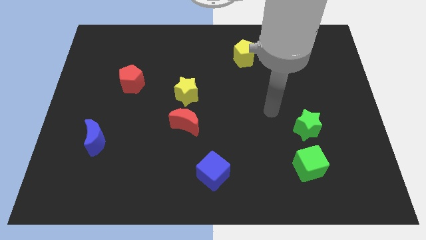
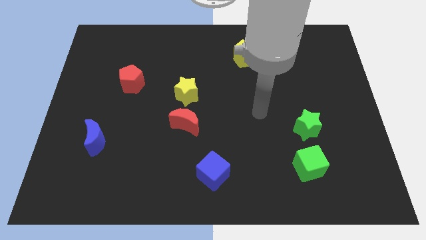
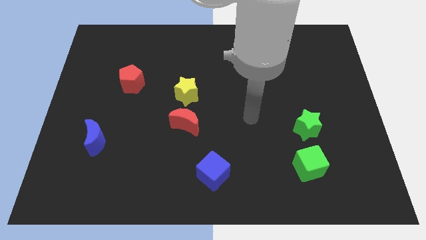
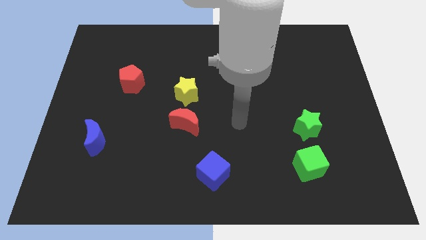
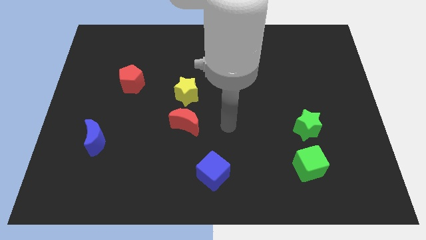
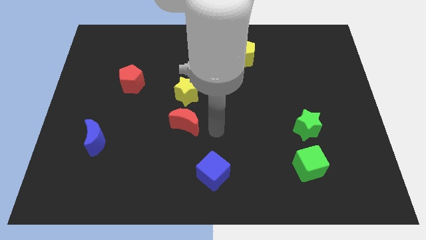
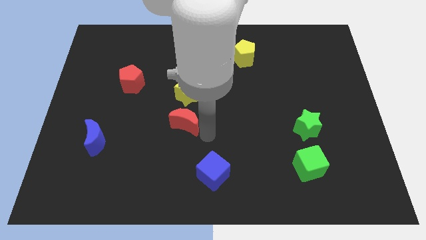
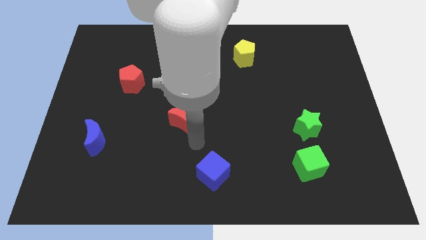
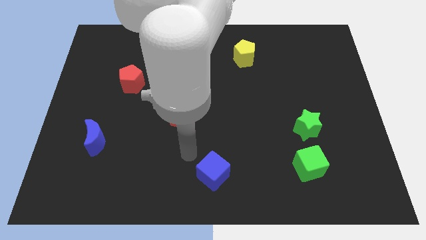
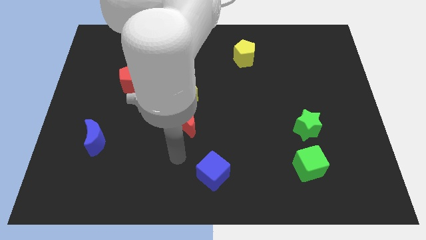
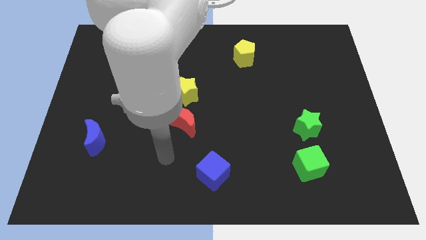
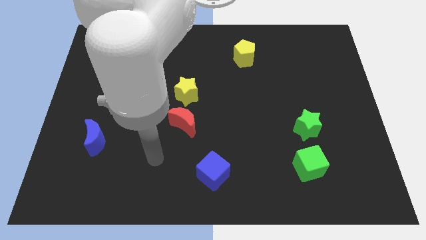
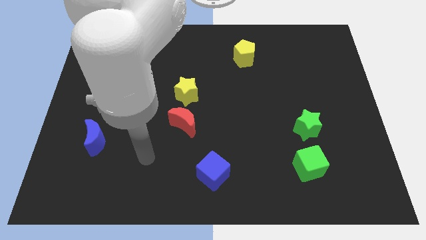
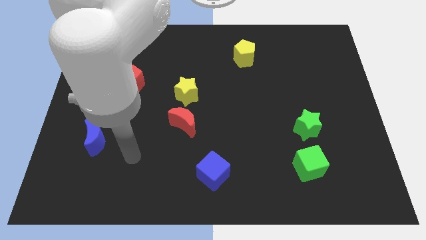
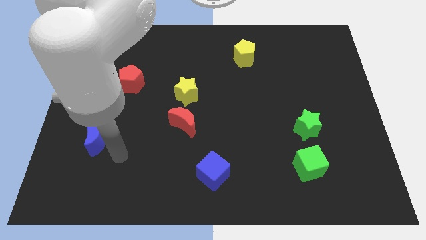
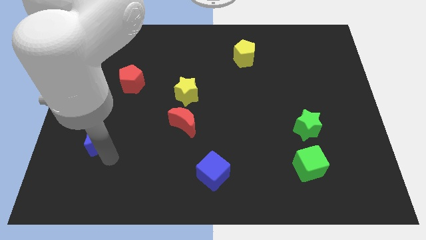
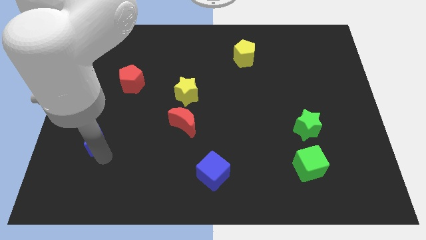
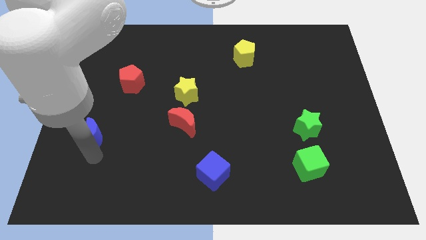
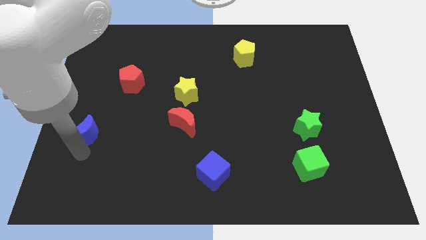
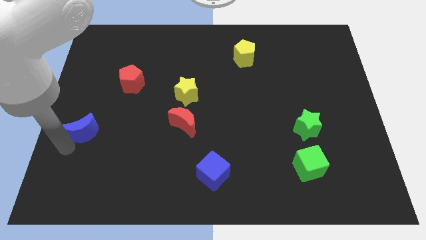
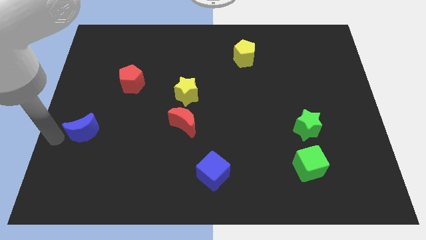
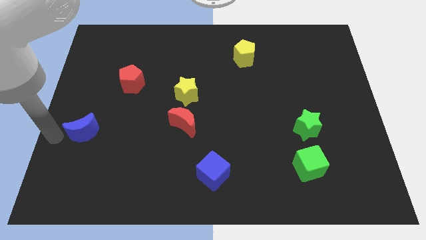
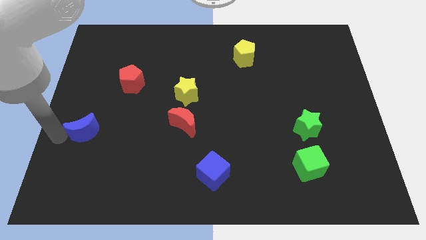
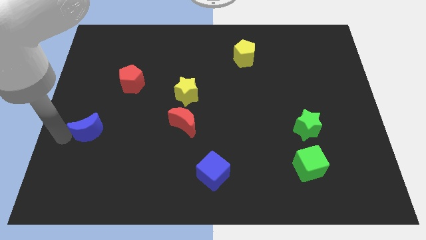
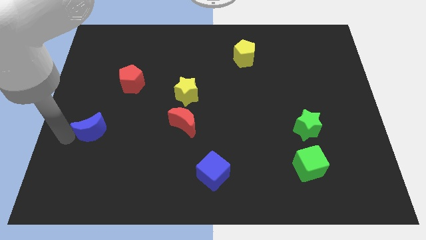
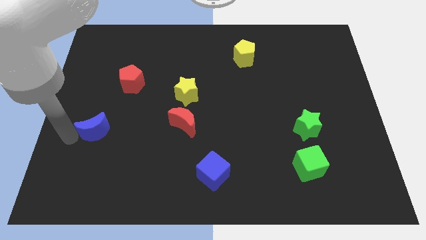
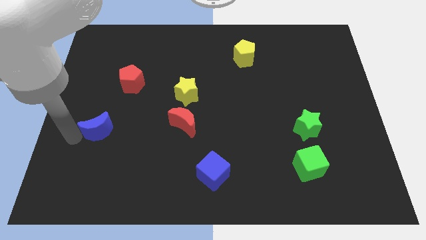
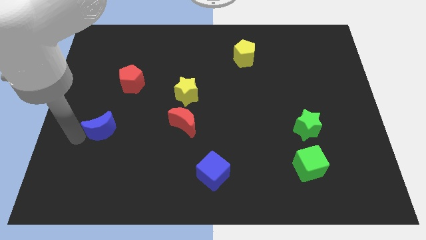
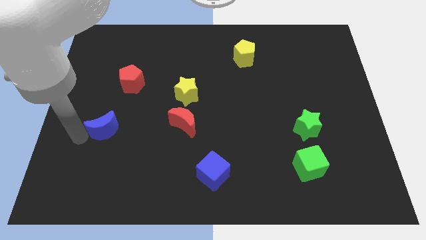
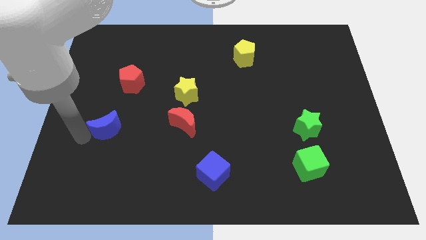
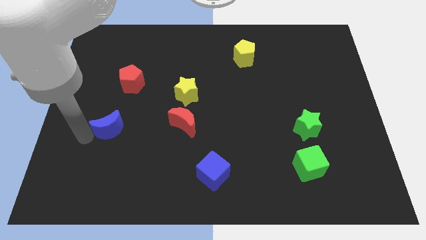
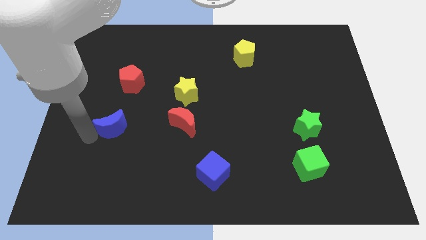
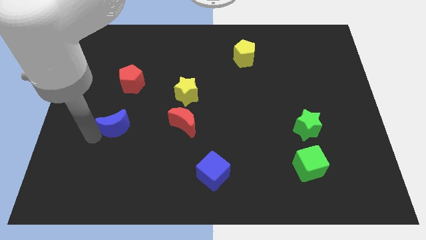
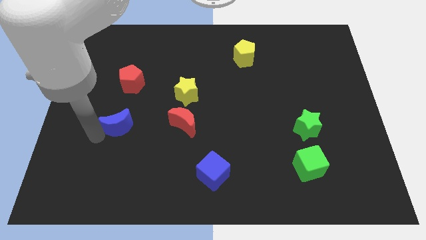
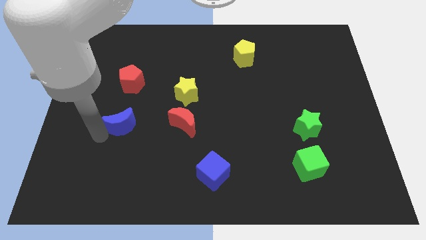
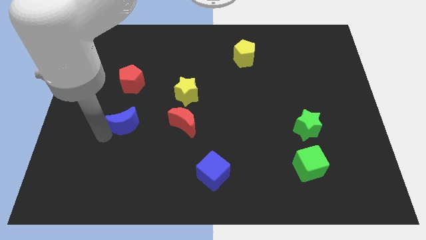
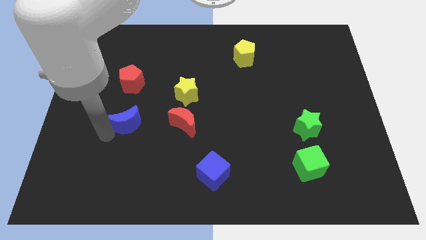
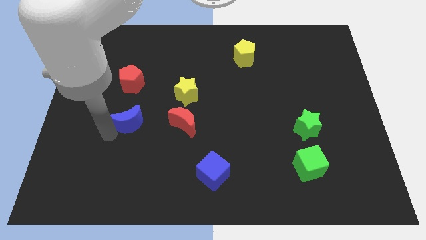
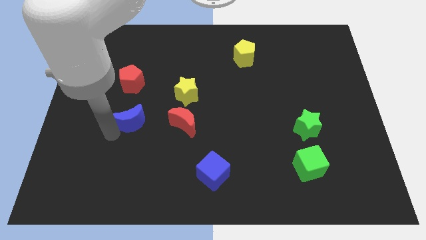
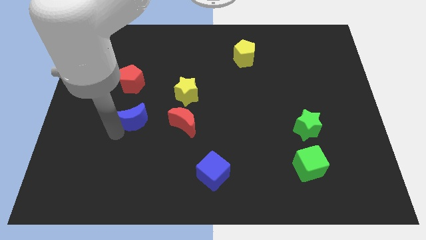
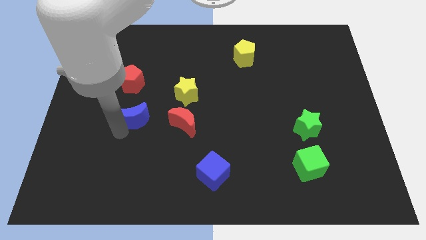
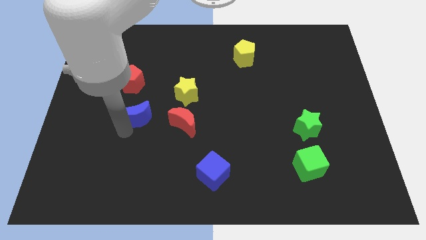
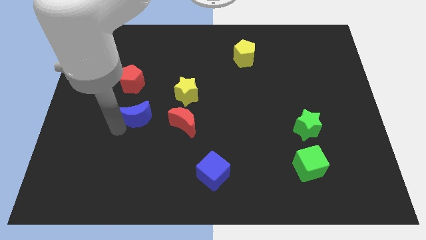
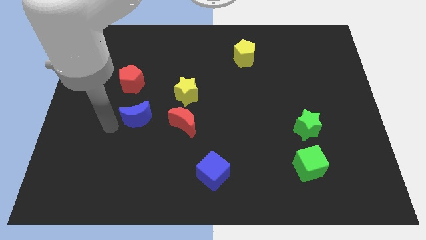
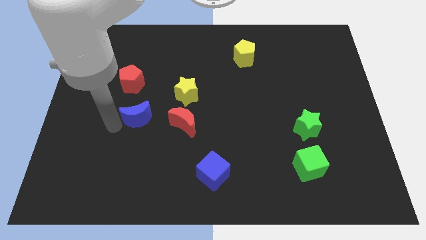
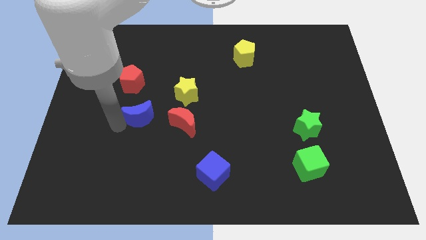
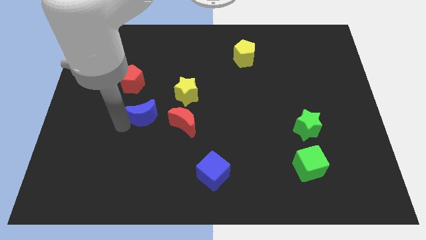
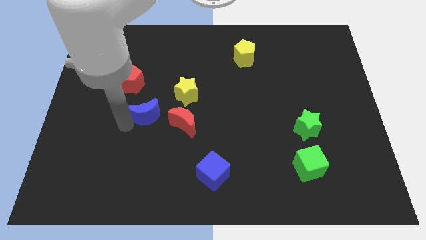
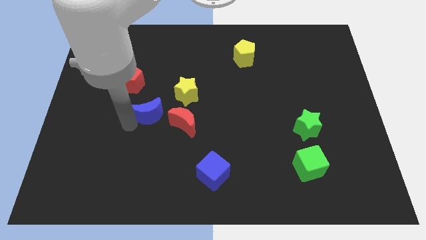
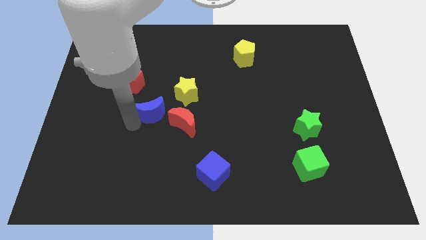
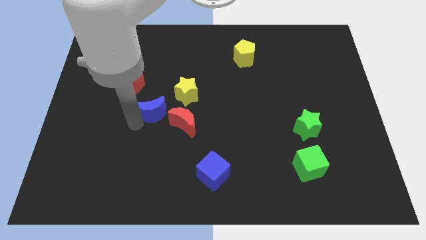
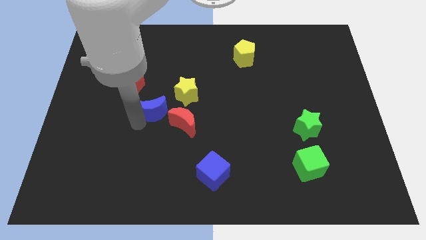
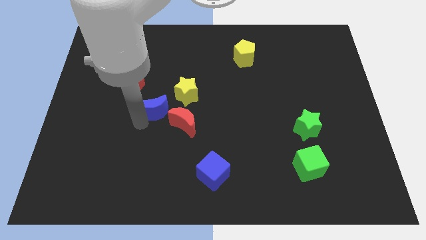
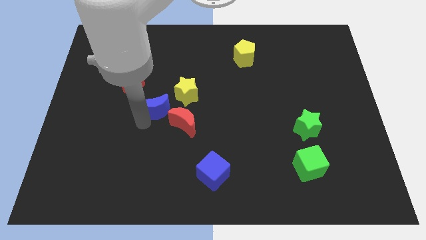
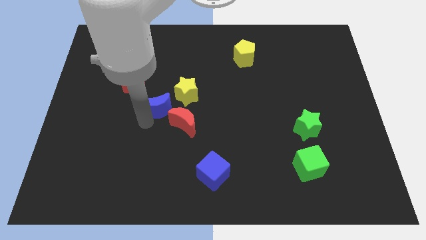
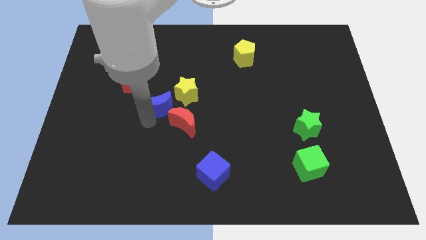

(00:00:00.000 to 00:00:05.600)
put the blue moon to the middle of the board
